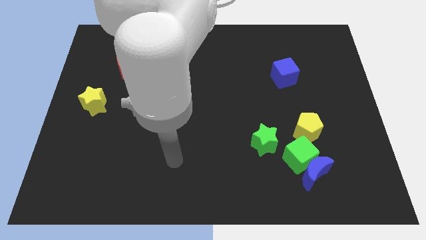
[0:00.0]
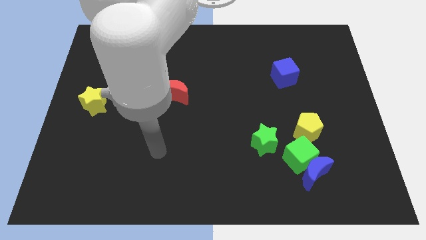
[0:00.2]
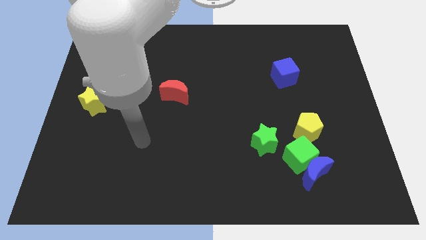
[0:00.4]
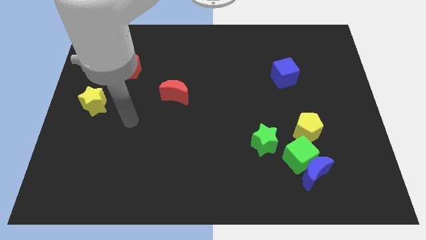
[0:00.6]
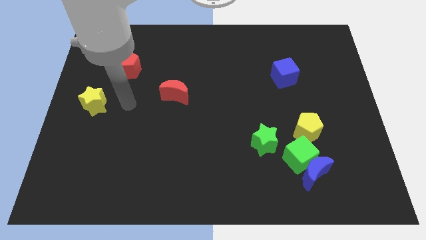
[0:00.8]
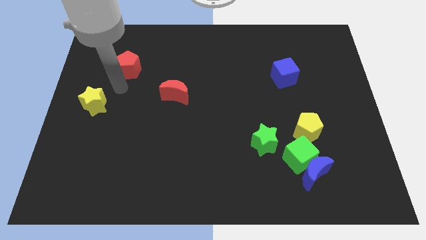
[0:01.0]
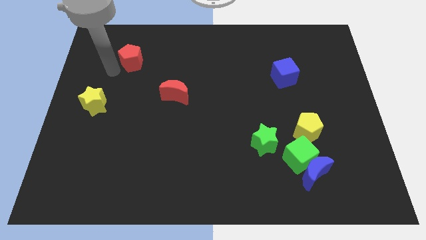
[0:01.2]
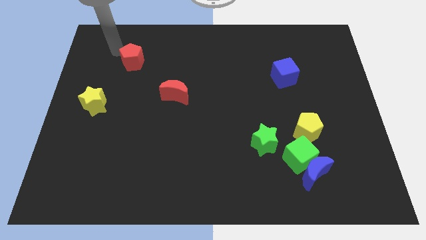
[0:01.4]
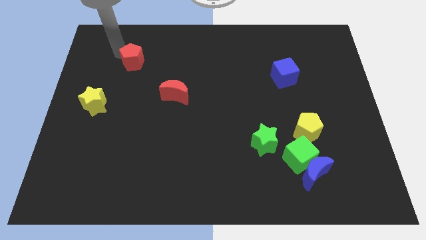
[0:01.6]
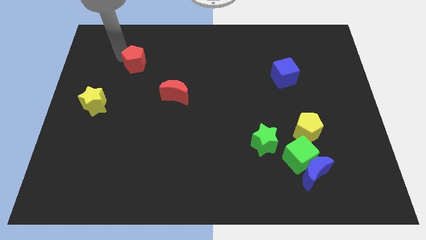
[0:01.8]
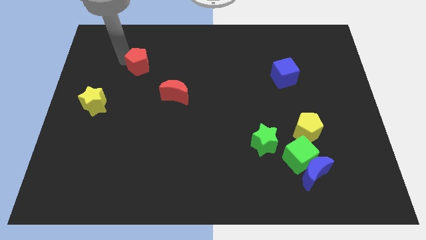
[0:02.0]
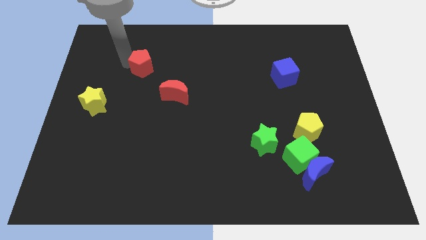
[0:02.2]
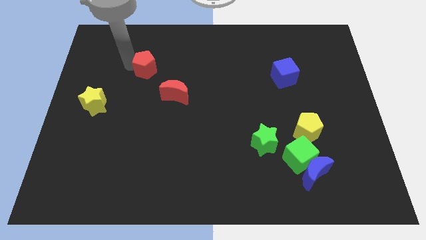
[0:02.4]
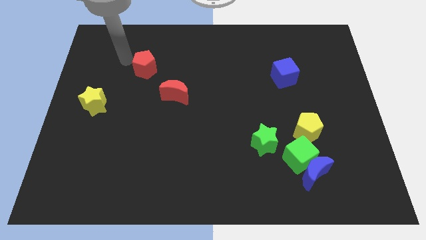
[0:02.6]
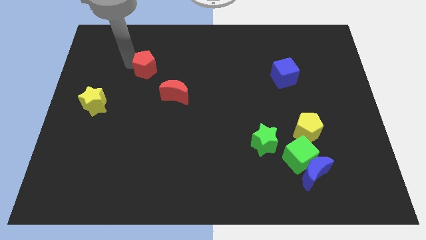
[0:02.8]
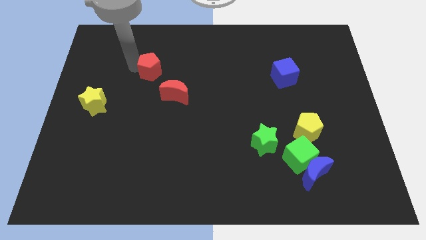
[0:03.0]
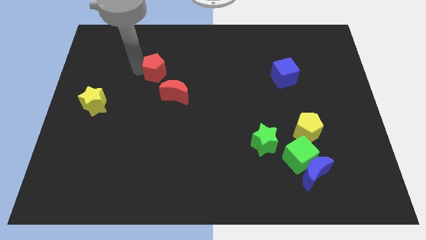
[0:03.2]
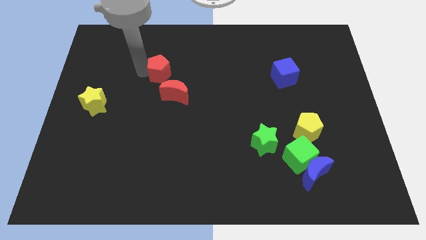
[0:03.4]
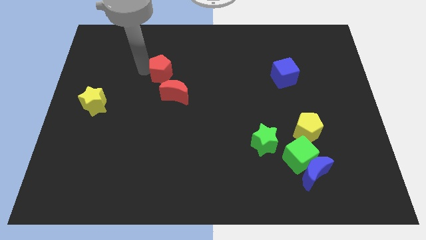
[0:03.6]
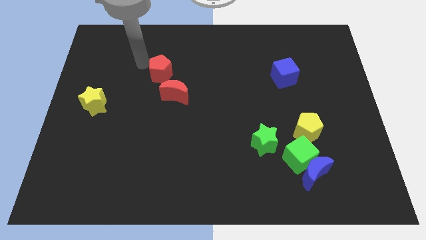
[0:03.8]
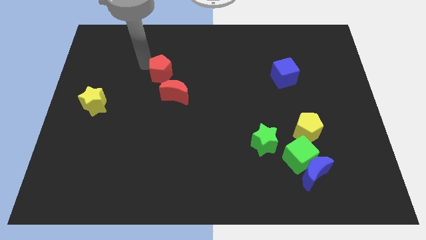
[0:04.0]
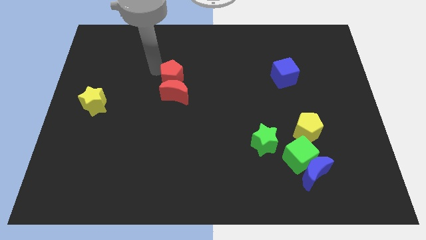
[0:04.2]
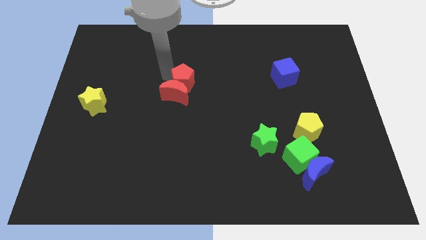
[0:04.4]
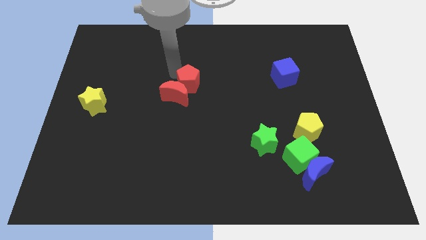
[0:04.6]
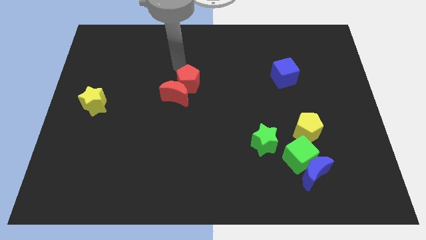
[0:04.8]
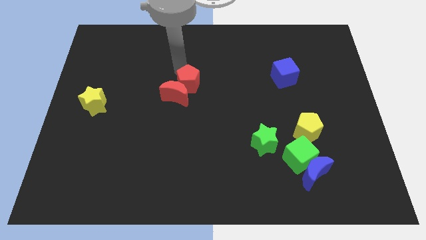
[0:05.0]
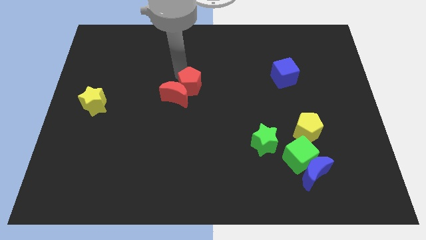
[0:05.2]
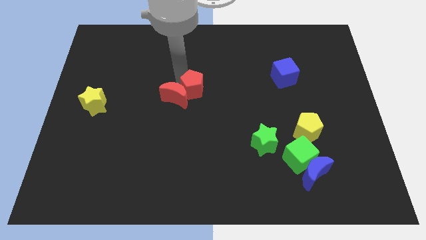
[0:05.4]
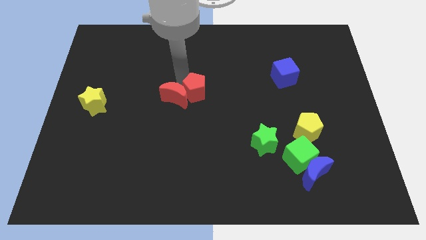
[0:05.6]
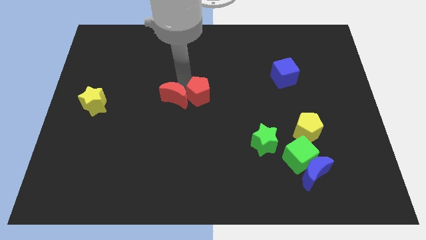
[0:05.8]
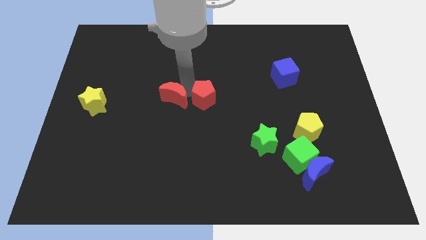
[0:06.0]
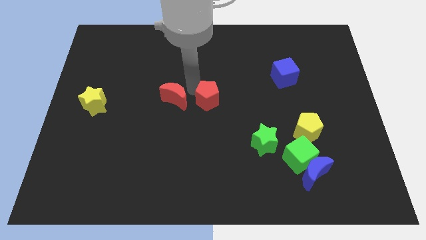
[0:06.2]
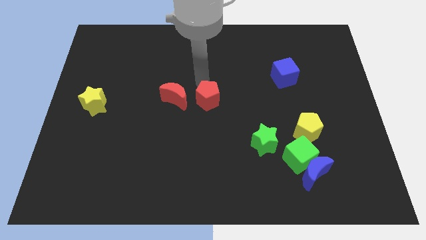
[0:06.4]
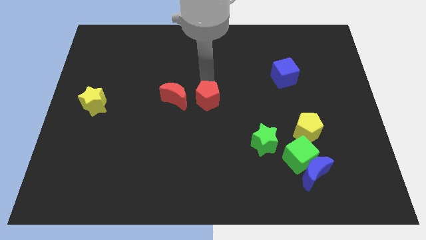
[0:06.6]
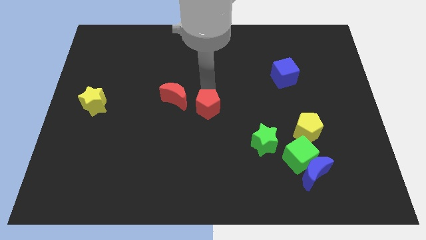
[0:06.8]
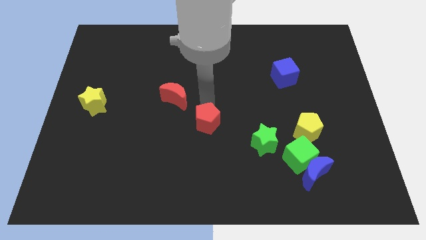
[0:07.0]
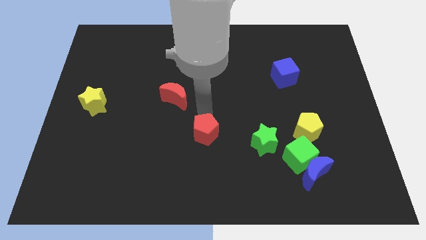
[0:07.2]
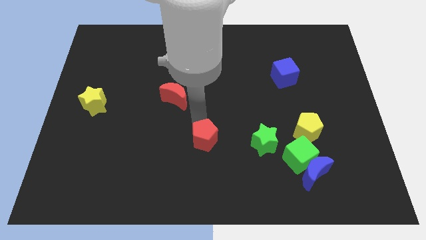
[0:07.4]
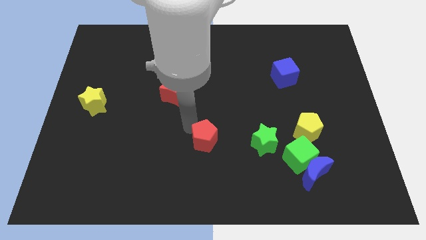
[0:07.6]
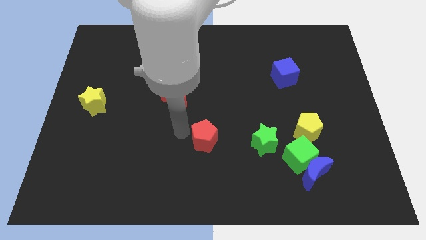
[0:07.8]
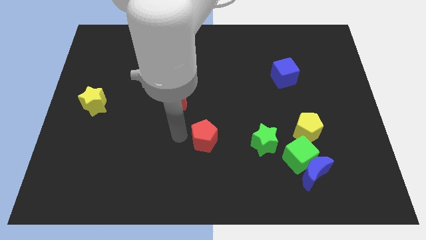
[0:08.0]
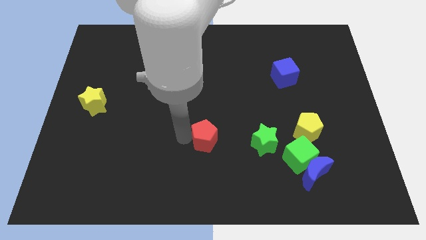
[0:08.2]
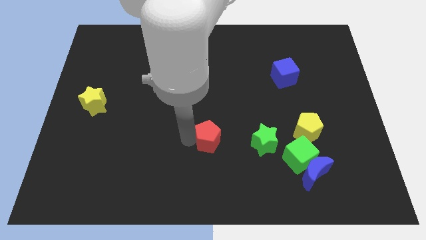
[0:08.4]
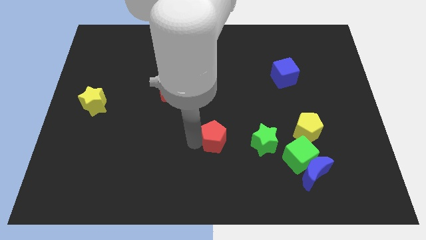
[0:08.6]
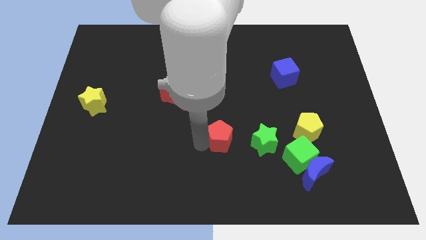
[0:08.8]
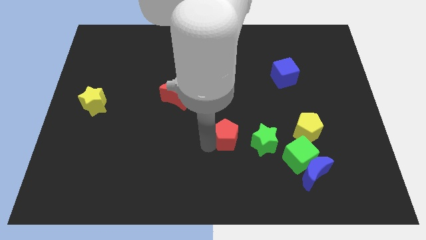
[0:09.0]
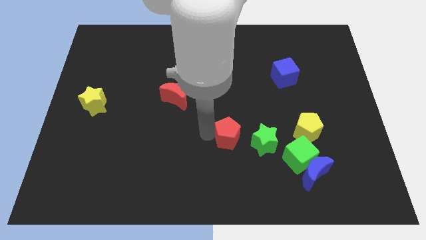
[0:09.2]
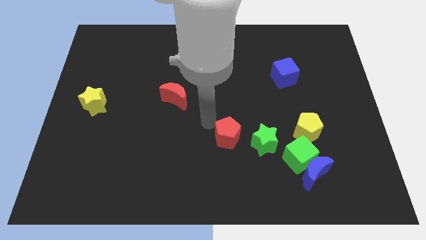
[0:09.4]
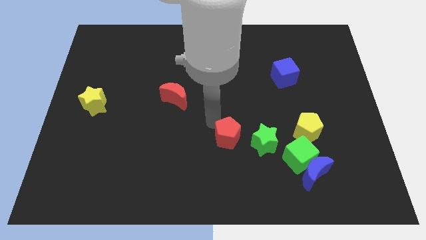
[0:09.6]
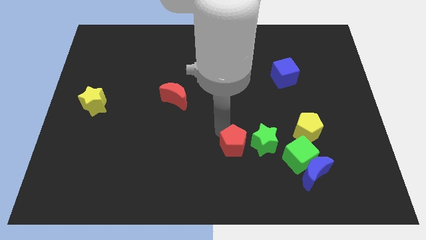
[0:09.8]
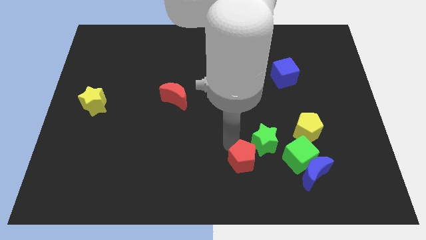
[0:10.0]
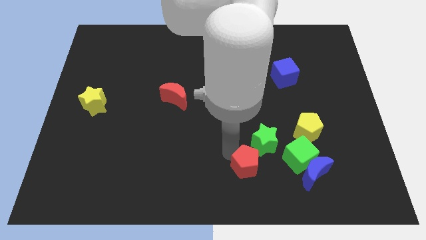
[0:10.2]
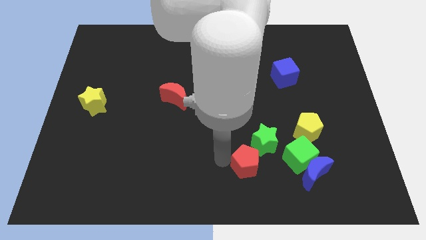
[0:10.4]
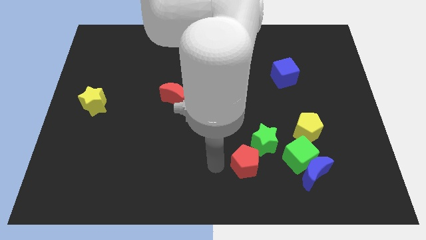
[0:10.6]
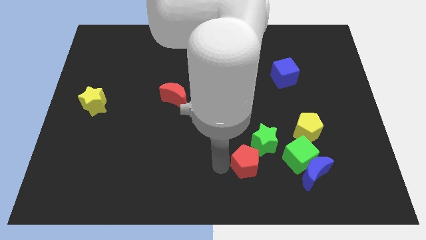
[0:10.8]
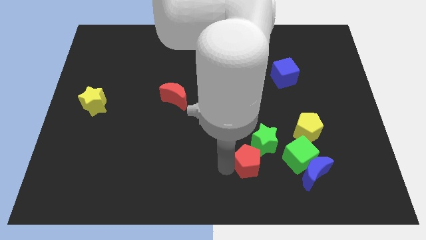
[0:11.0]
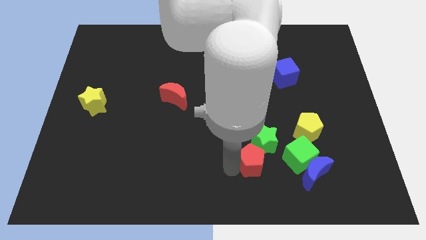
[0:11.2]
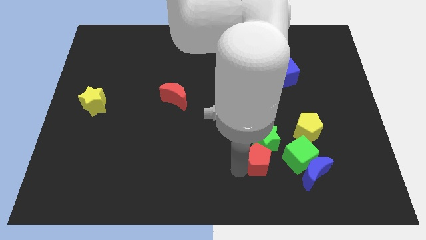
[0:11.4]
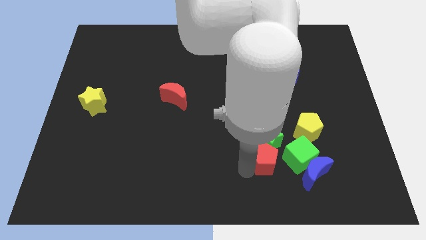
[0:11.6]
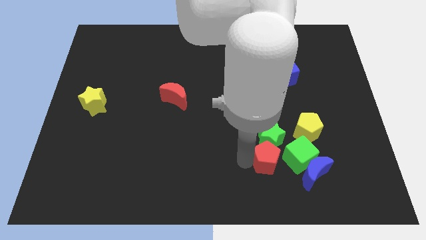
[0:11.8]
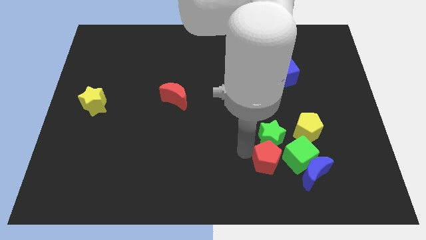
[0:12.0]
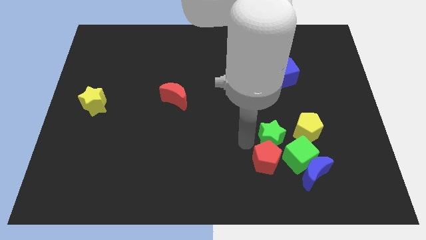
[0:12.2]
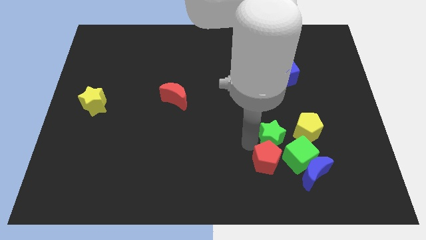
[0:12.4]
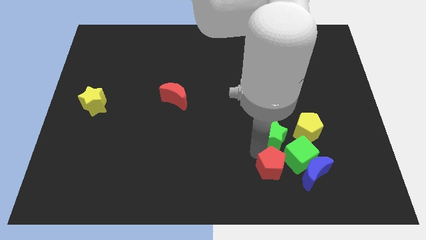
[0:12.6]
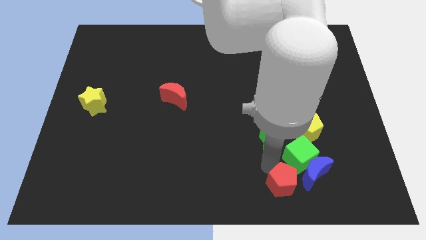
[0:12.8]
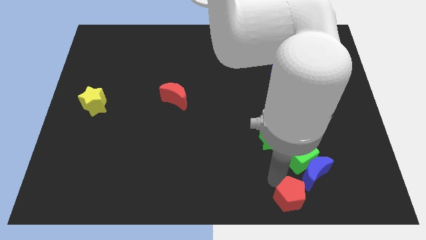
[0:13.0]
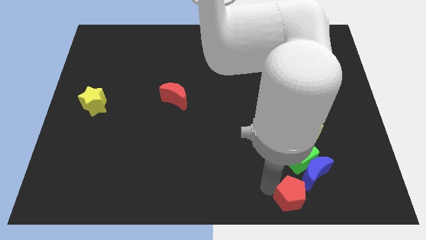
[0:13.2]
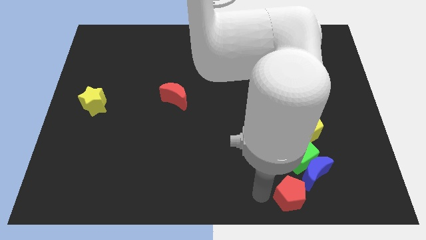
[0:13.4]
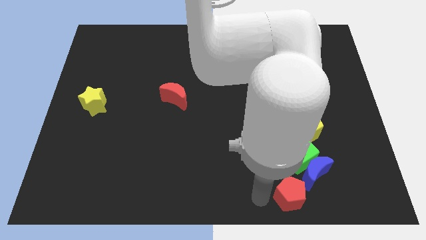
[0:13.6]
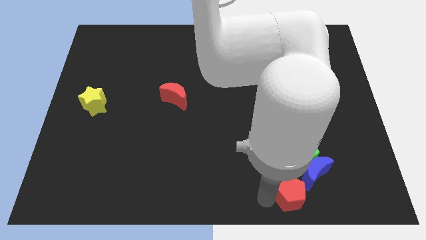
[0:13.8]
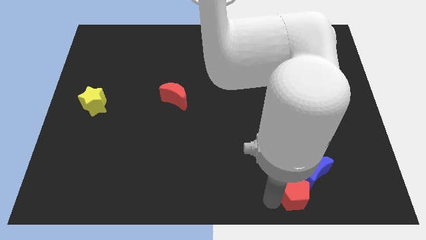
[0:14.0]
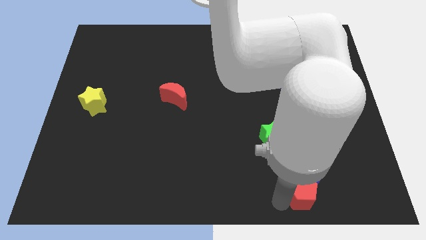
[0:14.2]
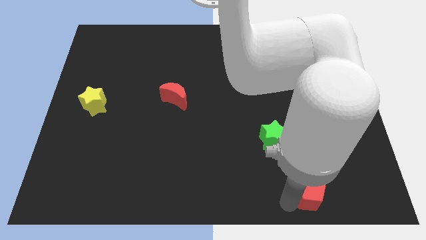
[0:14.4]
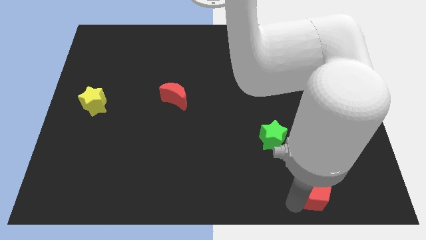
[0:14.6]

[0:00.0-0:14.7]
push the red pentagon to the bottom right of the green cube
